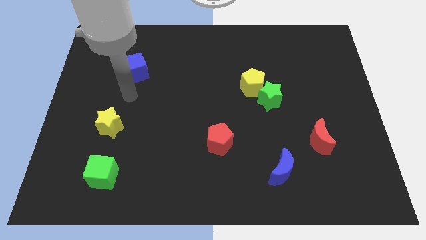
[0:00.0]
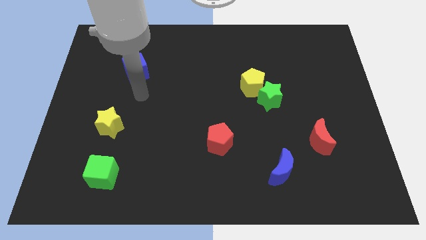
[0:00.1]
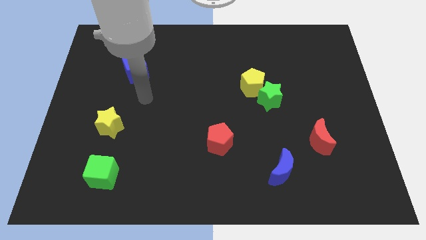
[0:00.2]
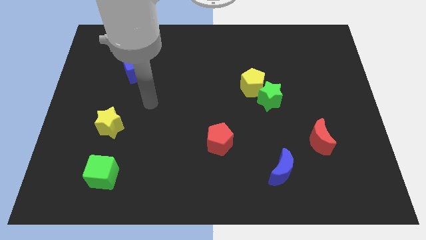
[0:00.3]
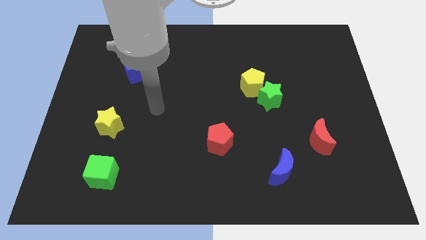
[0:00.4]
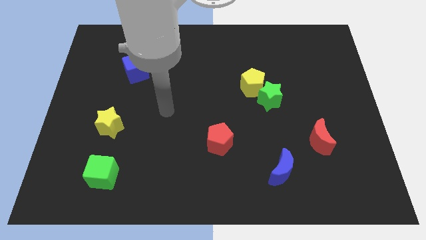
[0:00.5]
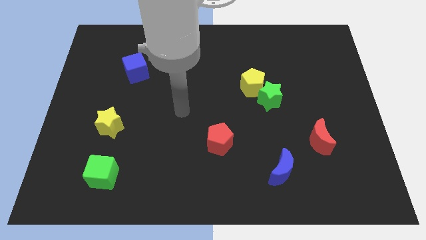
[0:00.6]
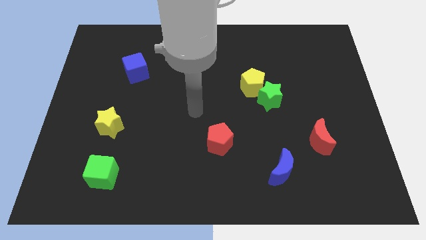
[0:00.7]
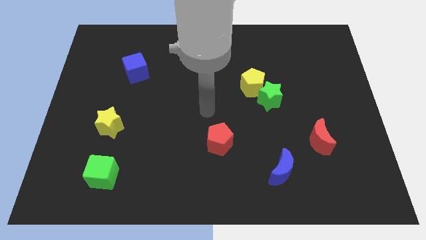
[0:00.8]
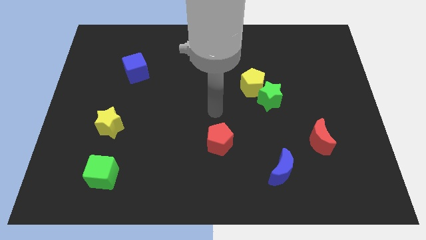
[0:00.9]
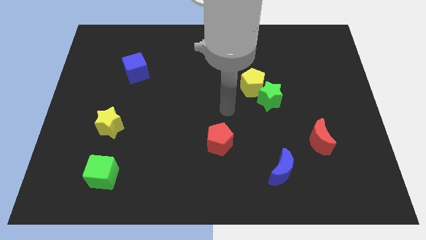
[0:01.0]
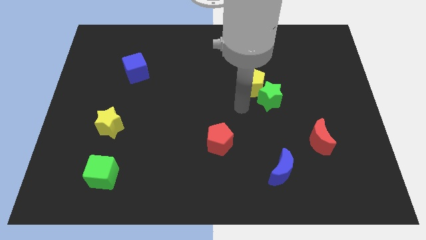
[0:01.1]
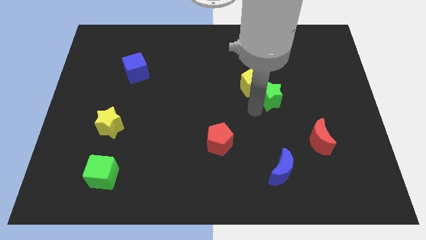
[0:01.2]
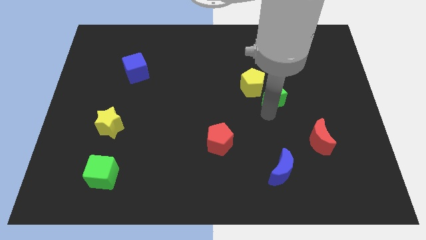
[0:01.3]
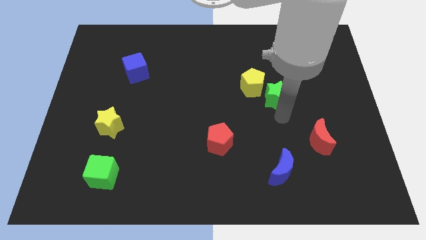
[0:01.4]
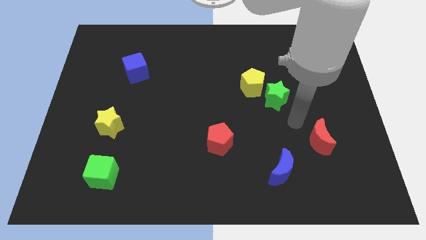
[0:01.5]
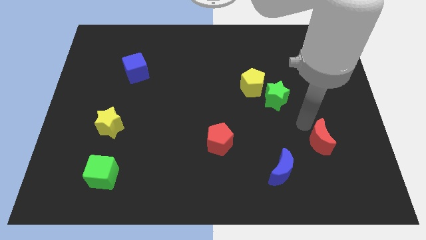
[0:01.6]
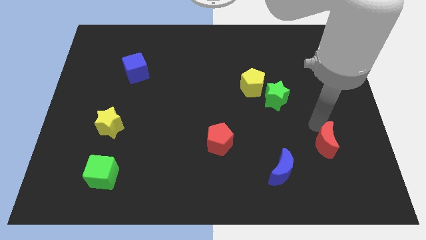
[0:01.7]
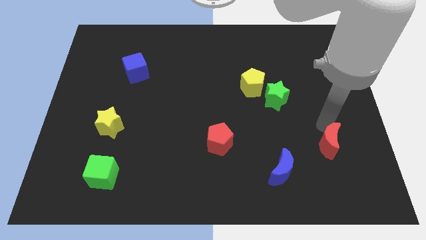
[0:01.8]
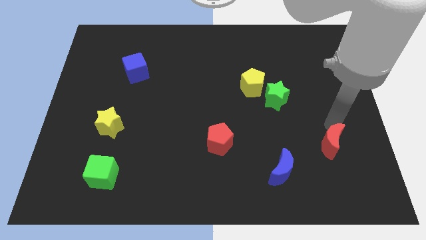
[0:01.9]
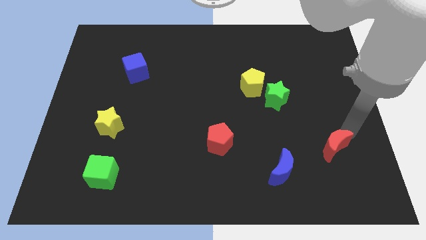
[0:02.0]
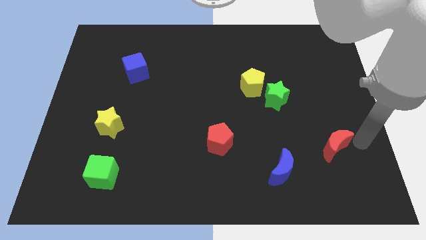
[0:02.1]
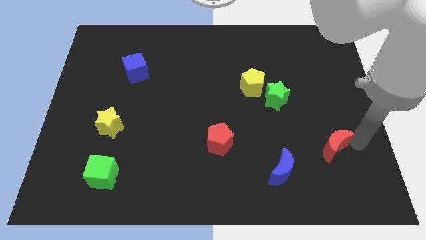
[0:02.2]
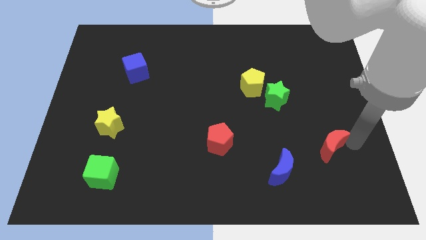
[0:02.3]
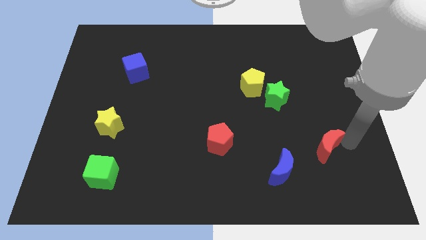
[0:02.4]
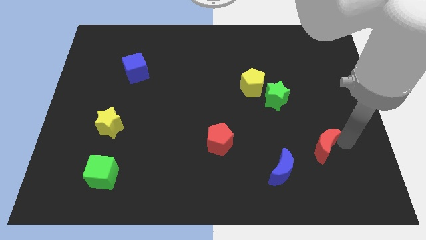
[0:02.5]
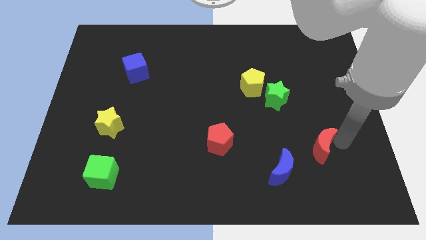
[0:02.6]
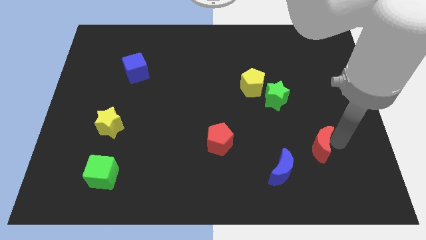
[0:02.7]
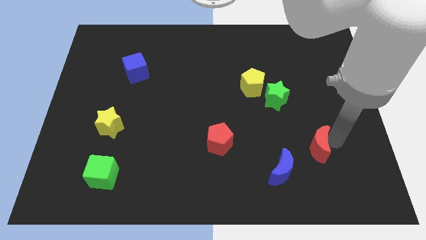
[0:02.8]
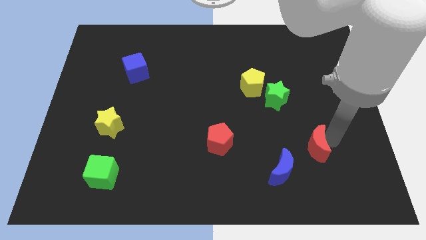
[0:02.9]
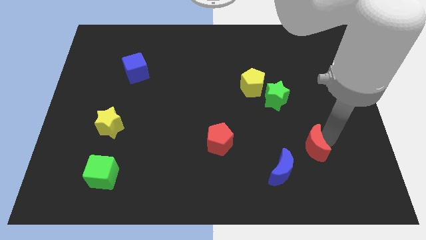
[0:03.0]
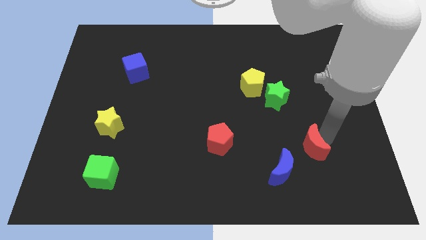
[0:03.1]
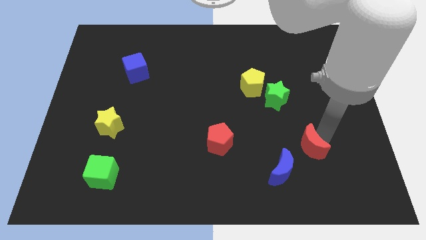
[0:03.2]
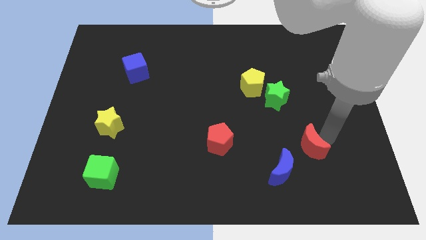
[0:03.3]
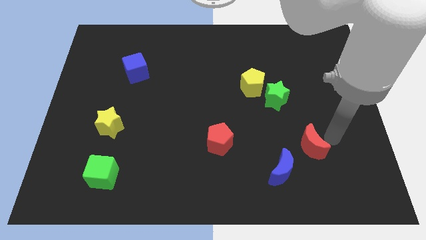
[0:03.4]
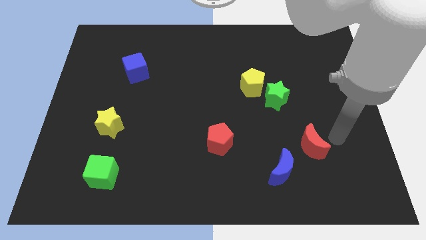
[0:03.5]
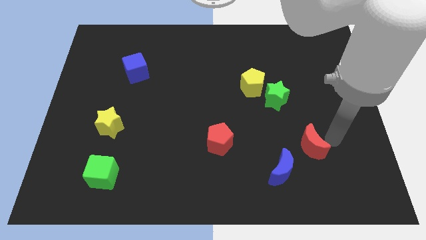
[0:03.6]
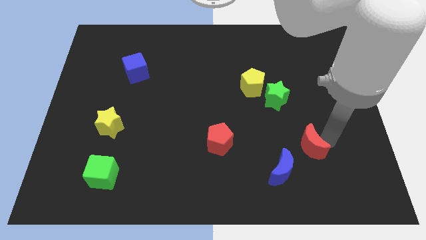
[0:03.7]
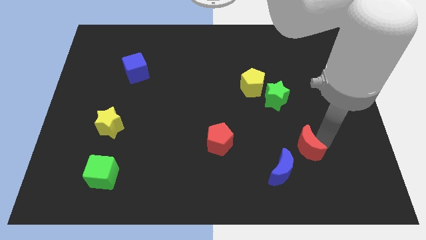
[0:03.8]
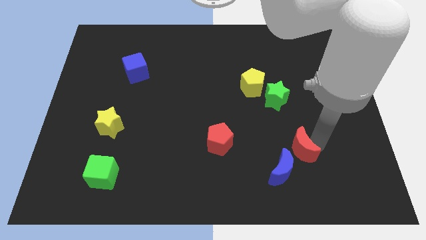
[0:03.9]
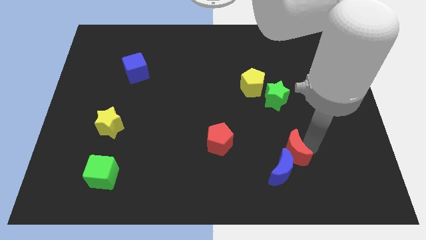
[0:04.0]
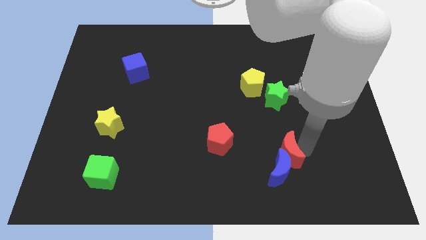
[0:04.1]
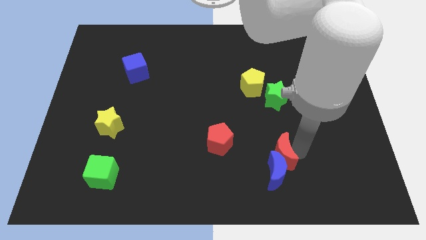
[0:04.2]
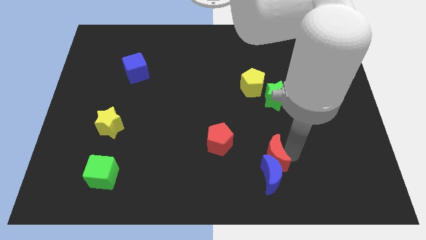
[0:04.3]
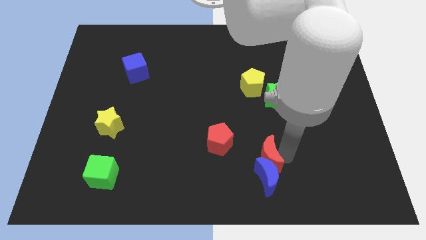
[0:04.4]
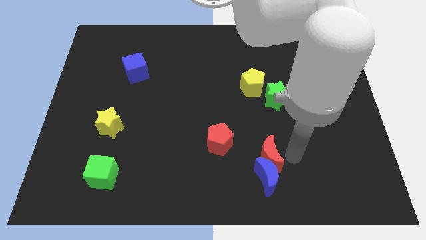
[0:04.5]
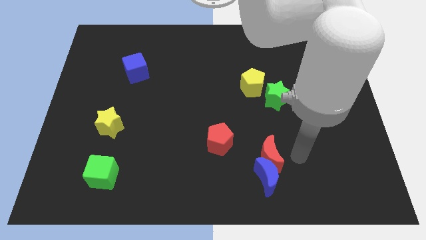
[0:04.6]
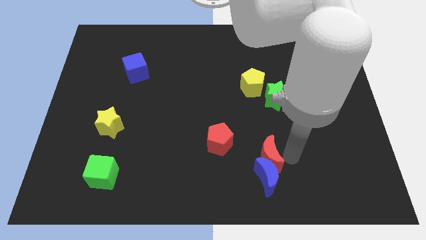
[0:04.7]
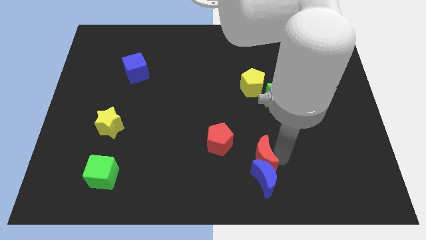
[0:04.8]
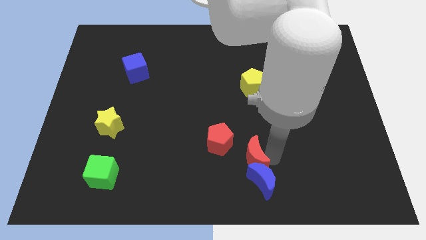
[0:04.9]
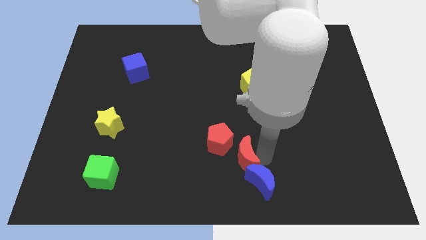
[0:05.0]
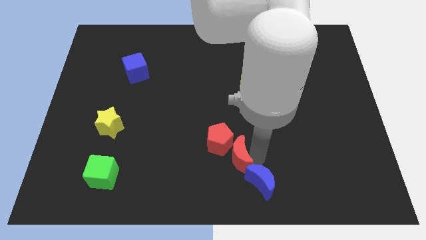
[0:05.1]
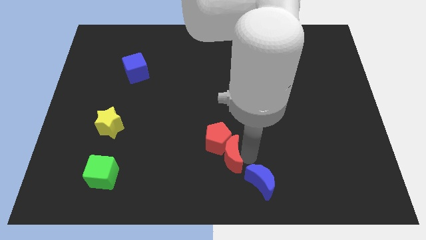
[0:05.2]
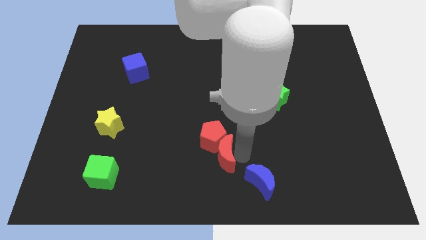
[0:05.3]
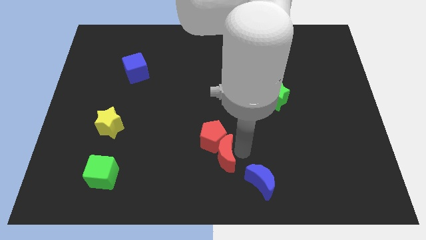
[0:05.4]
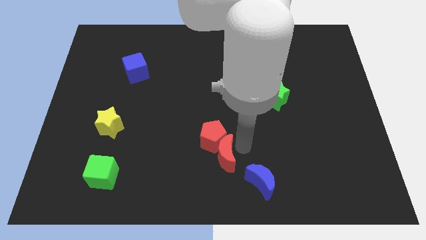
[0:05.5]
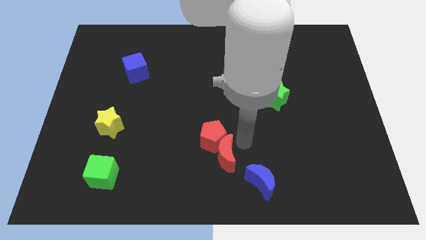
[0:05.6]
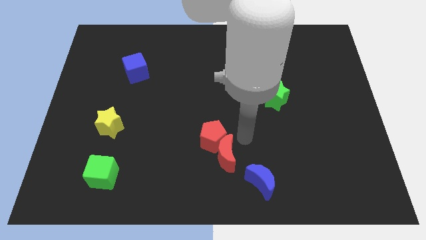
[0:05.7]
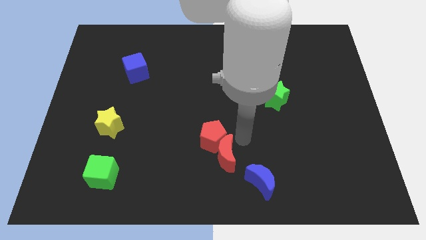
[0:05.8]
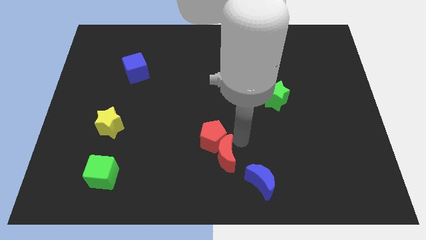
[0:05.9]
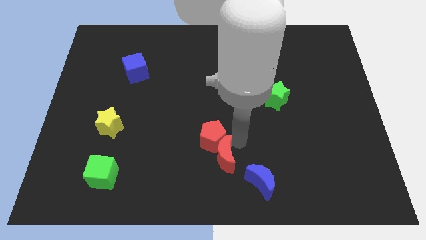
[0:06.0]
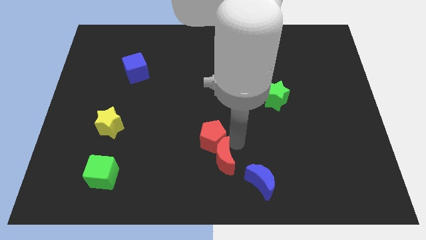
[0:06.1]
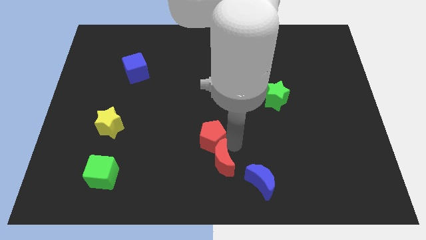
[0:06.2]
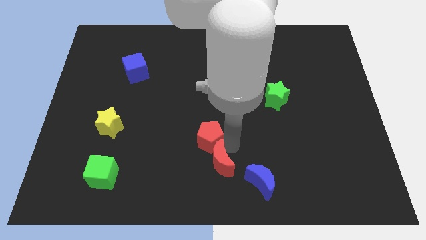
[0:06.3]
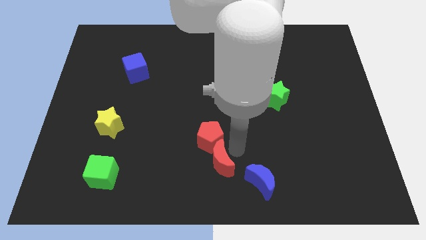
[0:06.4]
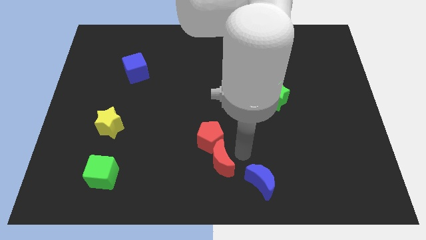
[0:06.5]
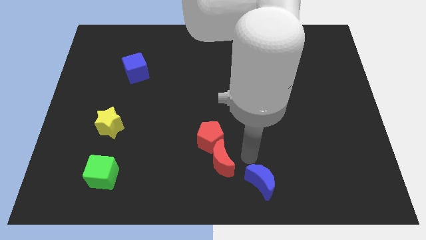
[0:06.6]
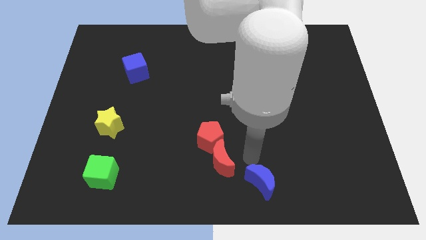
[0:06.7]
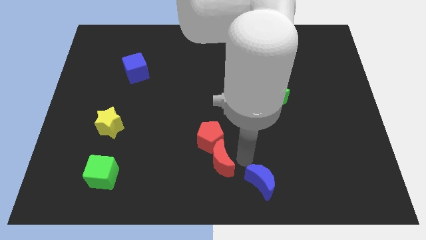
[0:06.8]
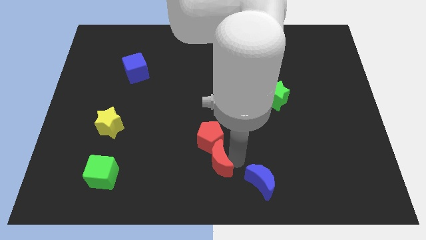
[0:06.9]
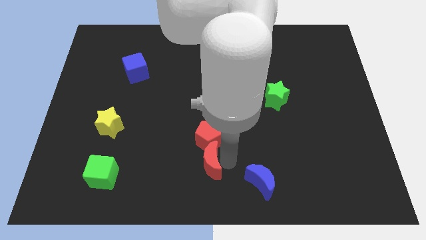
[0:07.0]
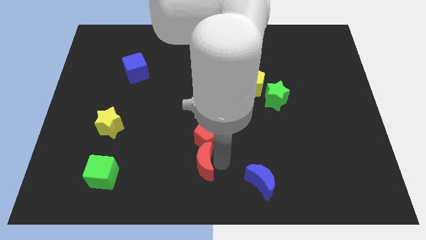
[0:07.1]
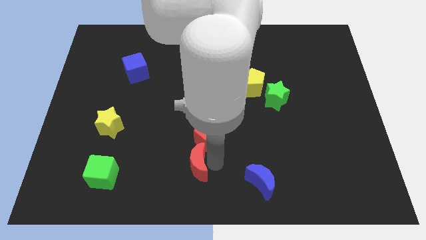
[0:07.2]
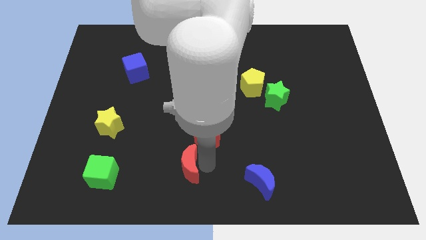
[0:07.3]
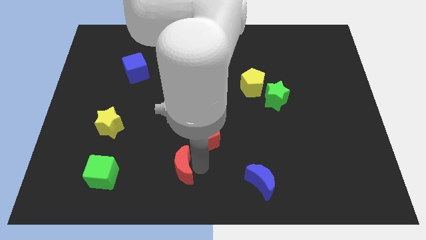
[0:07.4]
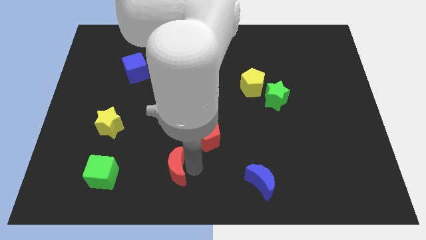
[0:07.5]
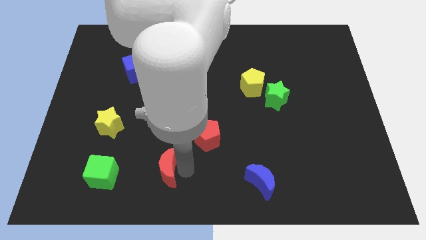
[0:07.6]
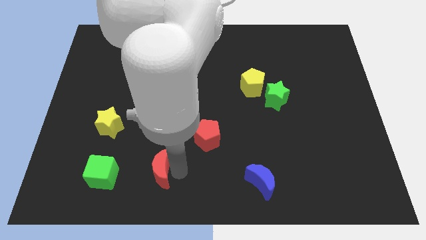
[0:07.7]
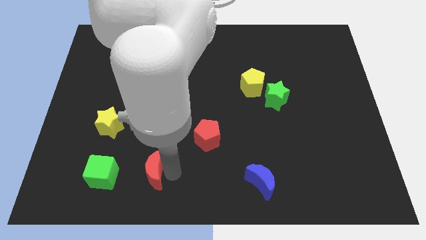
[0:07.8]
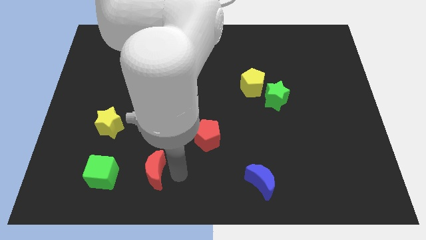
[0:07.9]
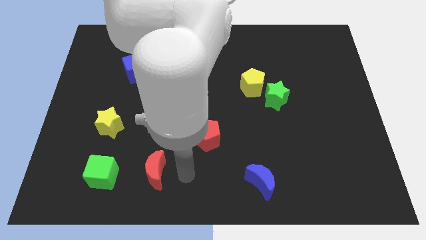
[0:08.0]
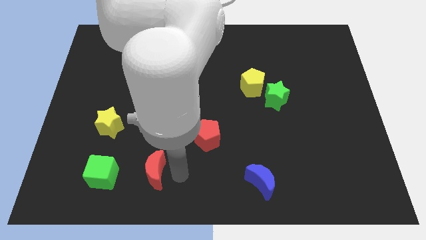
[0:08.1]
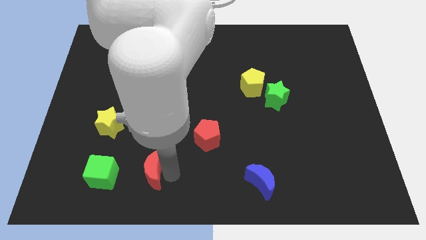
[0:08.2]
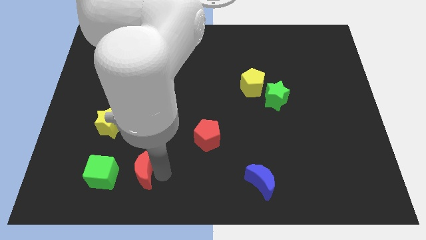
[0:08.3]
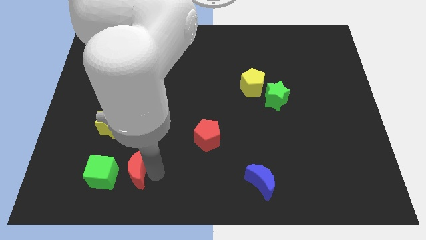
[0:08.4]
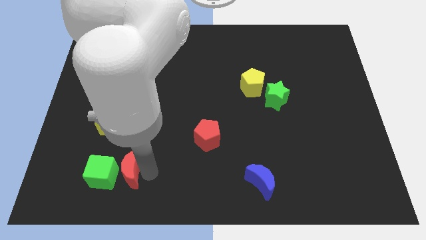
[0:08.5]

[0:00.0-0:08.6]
slide the red moon to the green cube
